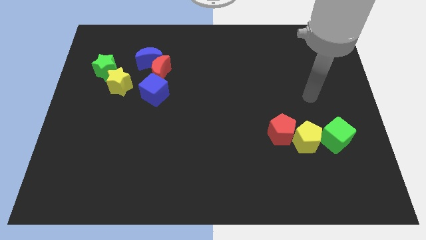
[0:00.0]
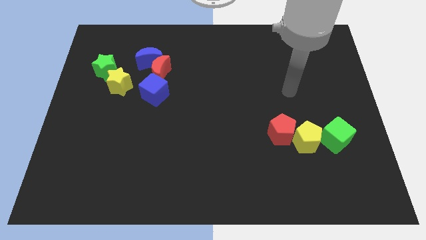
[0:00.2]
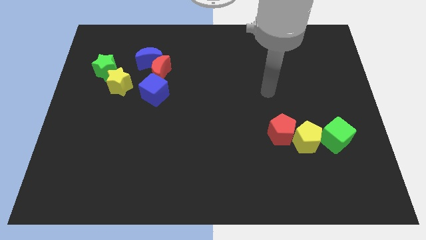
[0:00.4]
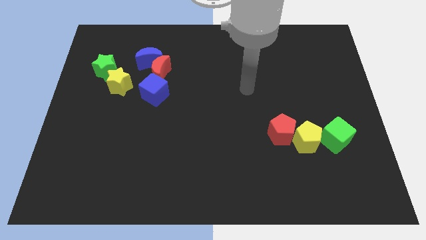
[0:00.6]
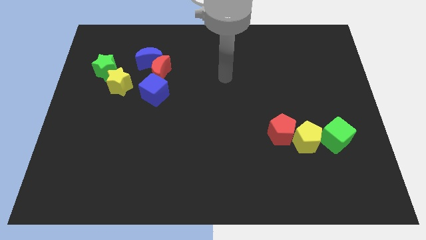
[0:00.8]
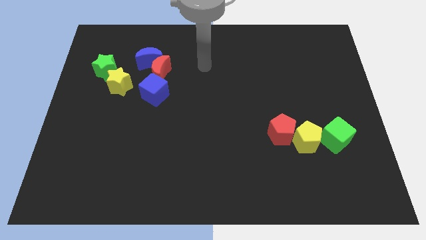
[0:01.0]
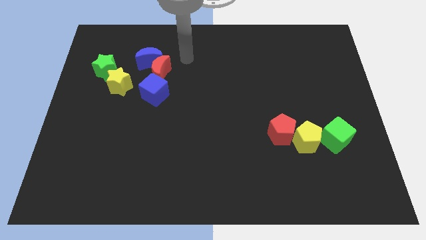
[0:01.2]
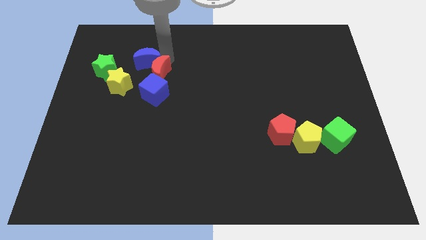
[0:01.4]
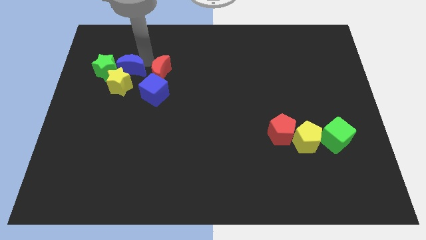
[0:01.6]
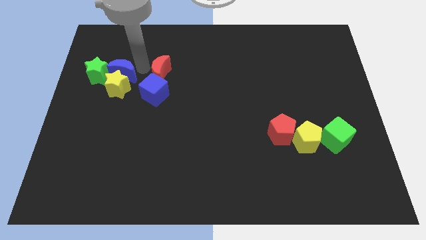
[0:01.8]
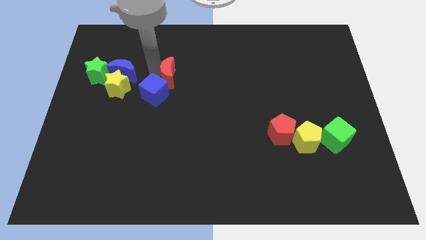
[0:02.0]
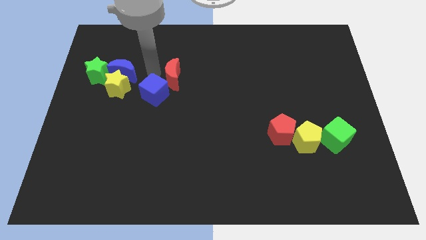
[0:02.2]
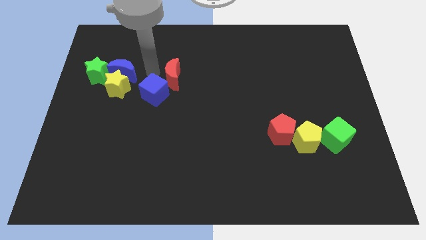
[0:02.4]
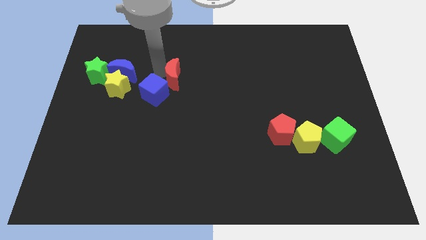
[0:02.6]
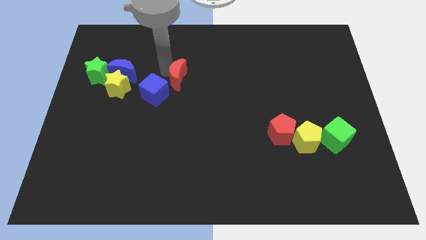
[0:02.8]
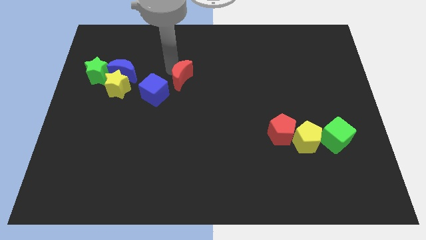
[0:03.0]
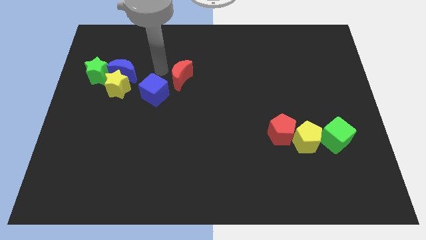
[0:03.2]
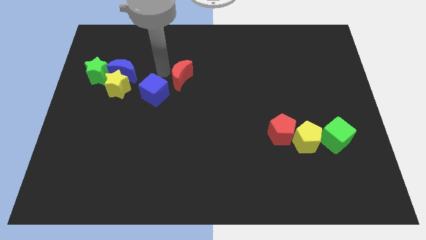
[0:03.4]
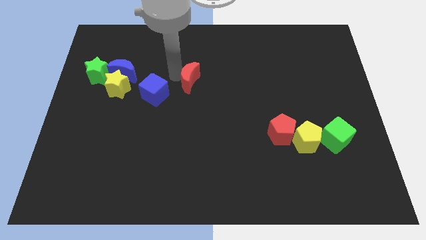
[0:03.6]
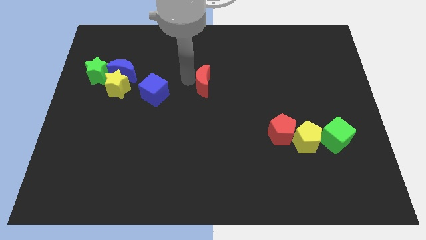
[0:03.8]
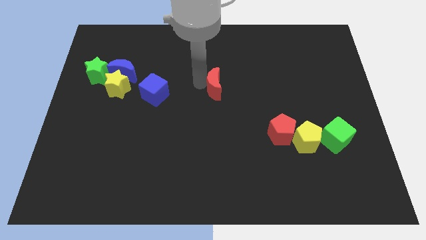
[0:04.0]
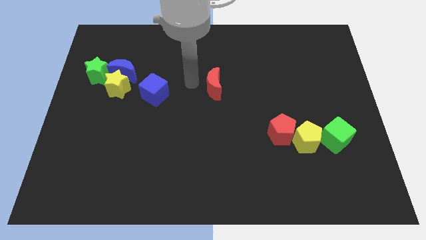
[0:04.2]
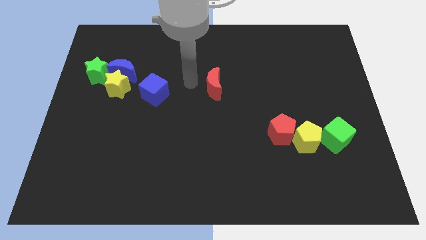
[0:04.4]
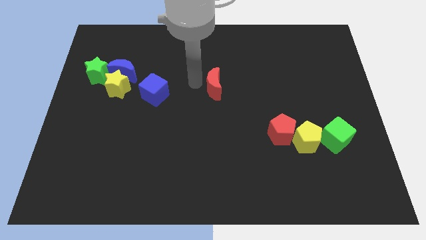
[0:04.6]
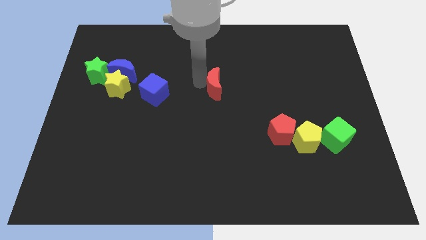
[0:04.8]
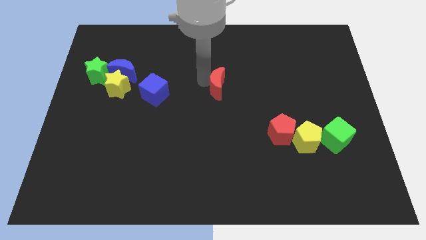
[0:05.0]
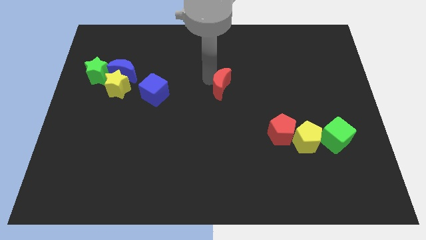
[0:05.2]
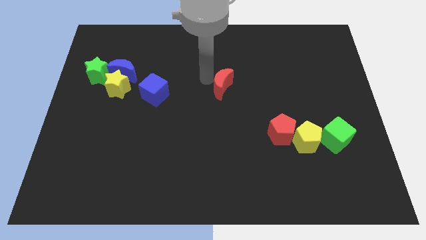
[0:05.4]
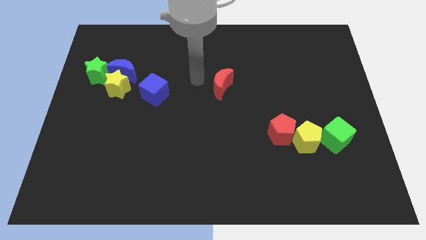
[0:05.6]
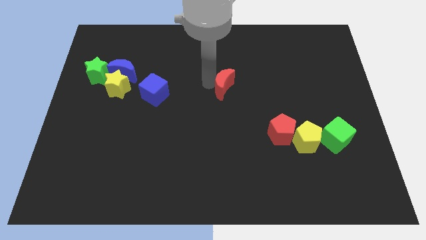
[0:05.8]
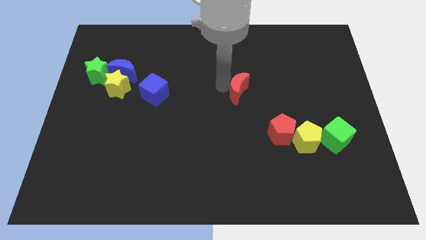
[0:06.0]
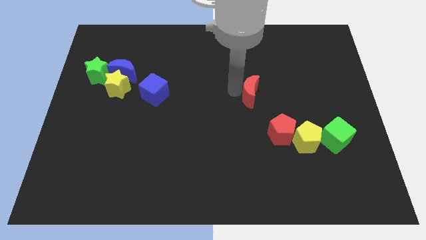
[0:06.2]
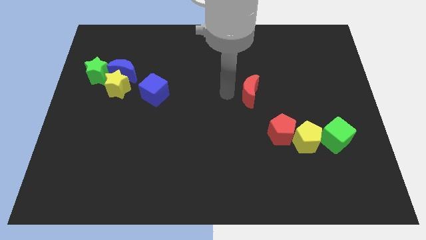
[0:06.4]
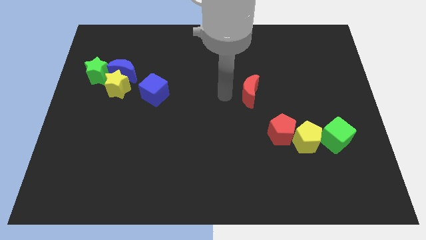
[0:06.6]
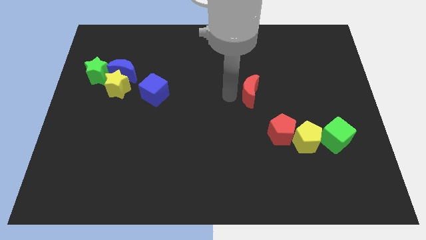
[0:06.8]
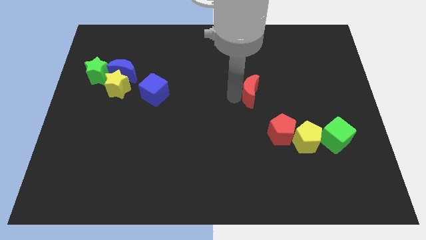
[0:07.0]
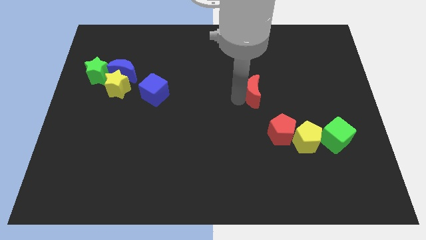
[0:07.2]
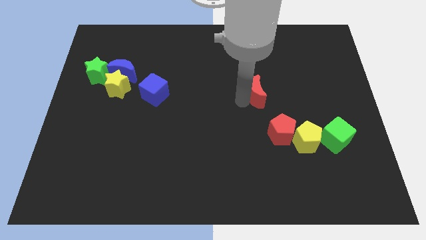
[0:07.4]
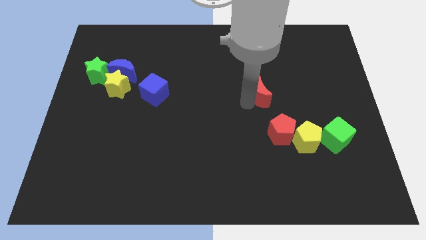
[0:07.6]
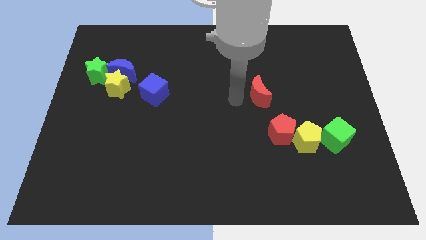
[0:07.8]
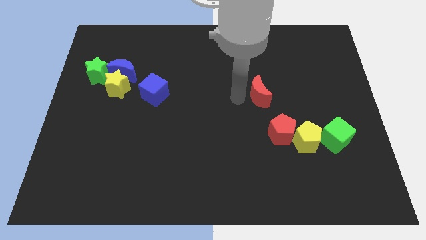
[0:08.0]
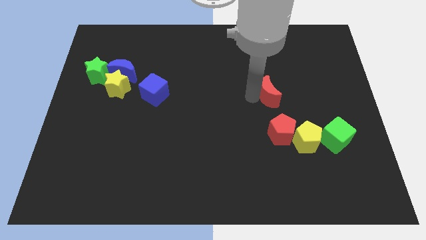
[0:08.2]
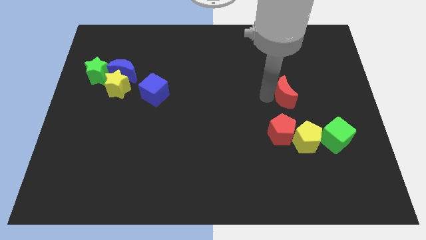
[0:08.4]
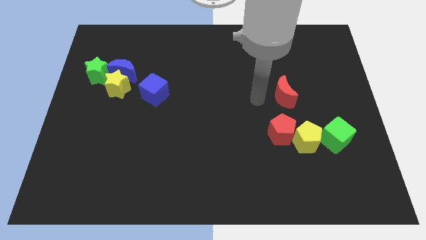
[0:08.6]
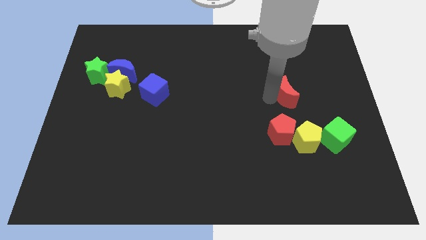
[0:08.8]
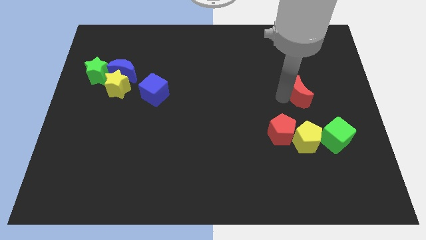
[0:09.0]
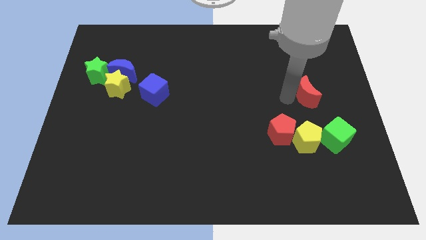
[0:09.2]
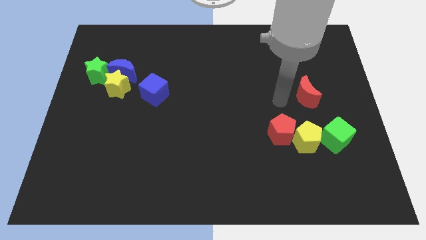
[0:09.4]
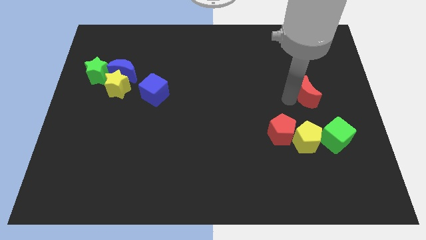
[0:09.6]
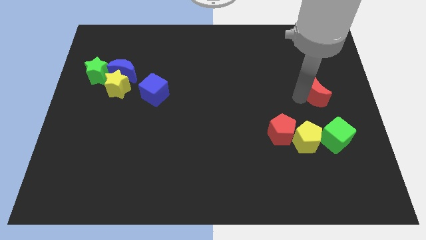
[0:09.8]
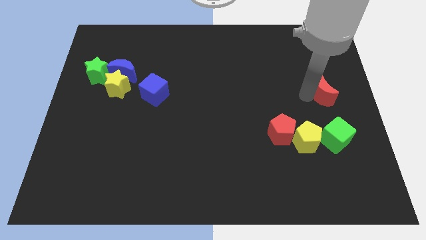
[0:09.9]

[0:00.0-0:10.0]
put the red moon to the right side
